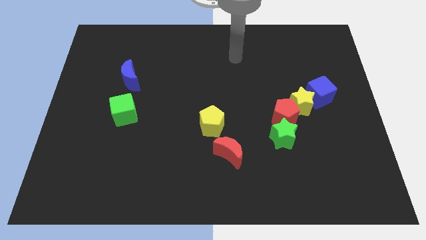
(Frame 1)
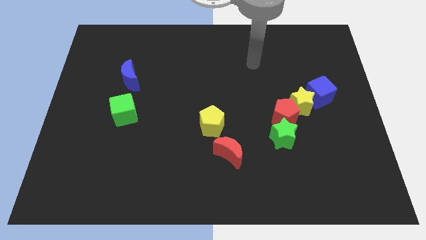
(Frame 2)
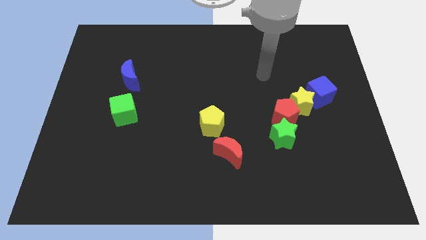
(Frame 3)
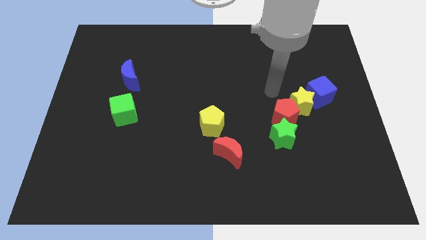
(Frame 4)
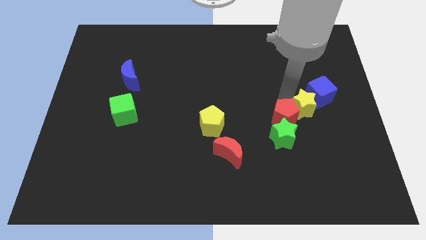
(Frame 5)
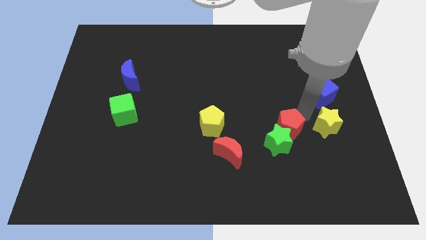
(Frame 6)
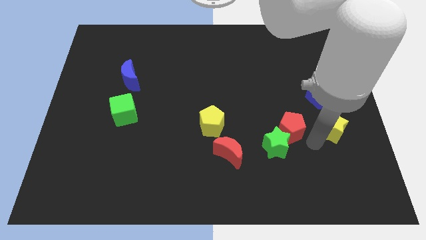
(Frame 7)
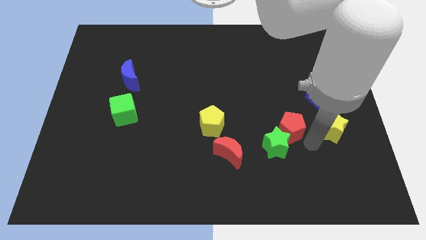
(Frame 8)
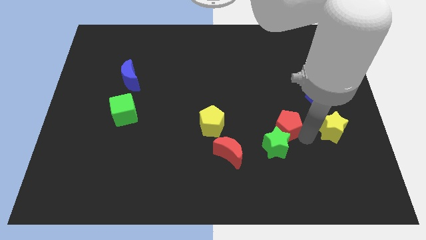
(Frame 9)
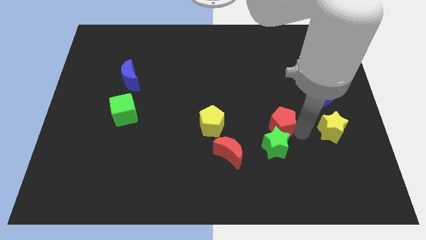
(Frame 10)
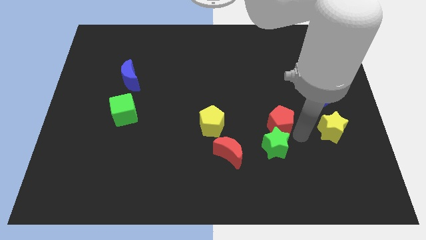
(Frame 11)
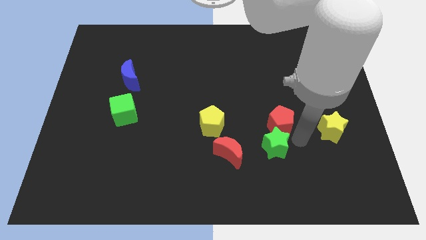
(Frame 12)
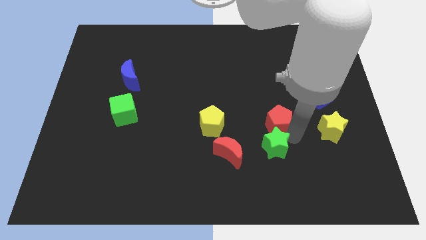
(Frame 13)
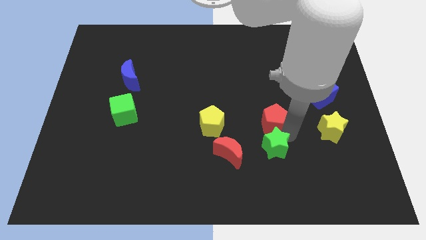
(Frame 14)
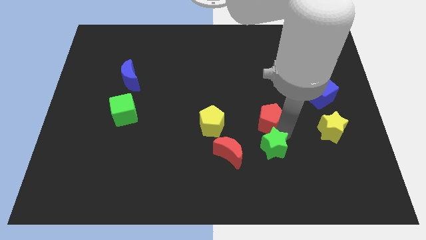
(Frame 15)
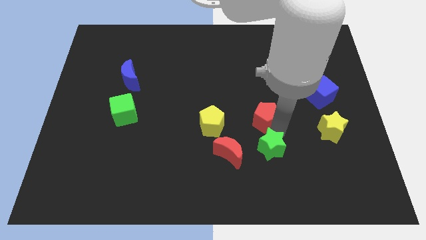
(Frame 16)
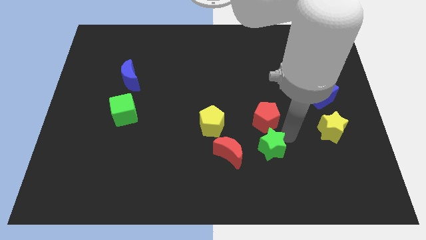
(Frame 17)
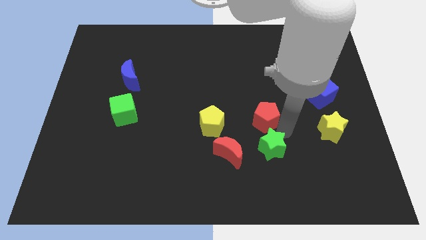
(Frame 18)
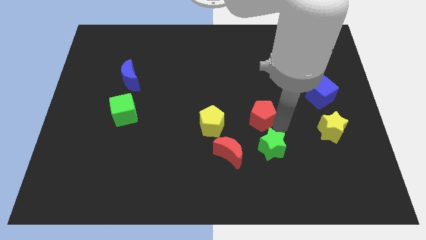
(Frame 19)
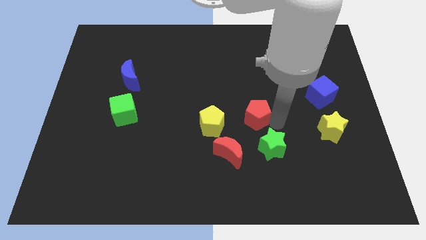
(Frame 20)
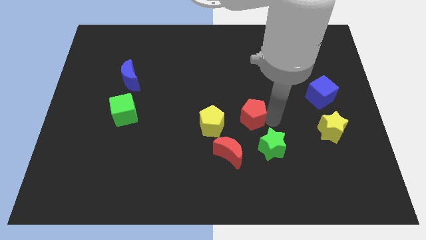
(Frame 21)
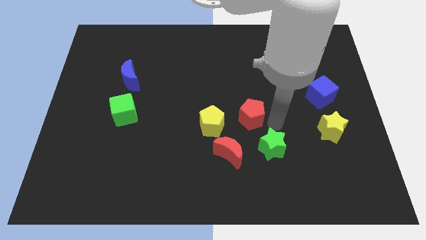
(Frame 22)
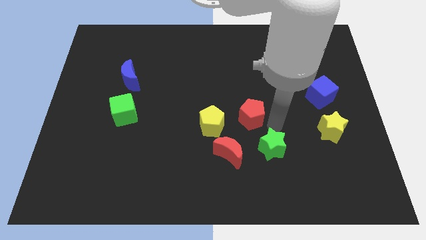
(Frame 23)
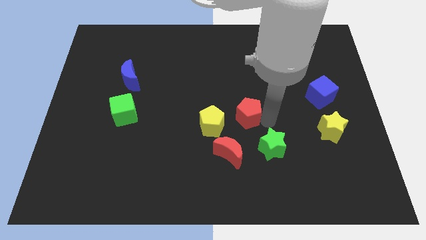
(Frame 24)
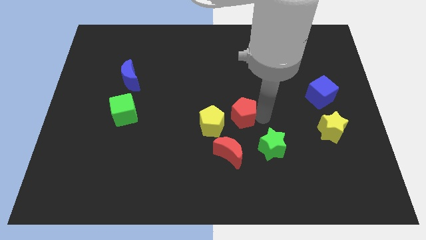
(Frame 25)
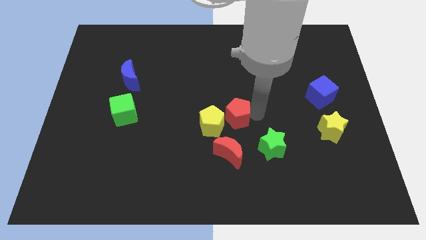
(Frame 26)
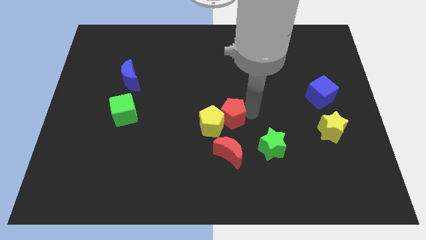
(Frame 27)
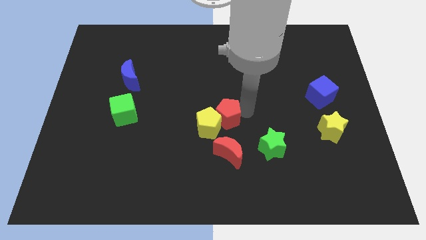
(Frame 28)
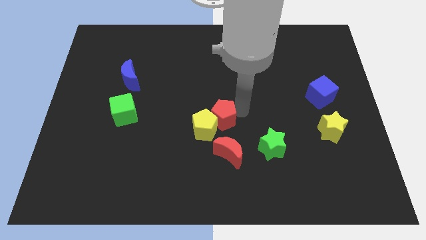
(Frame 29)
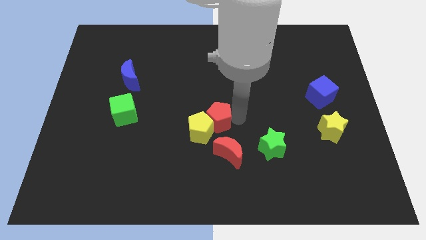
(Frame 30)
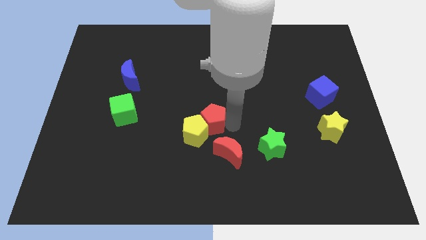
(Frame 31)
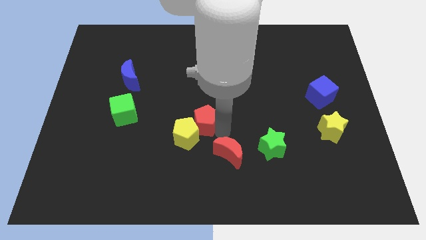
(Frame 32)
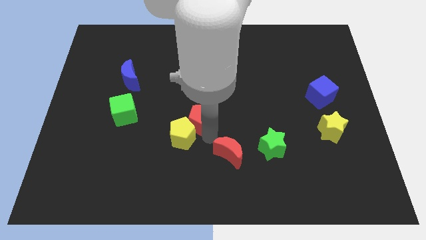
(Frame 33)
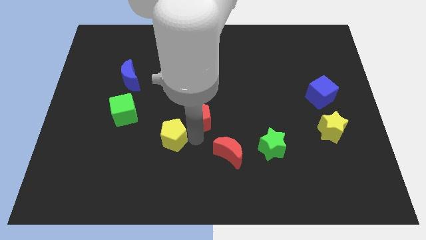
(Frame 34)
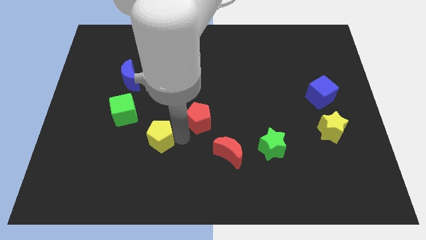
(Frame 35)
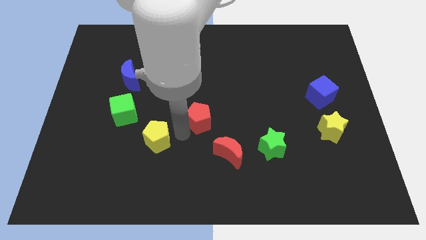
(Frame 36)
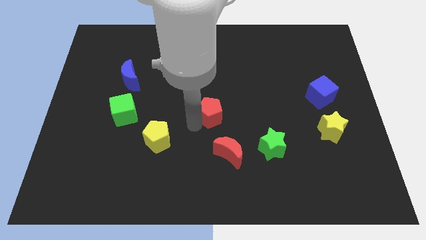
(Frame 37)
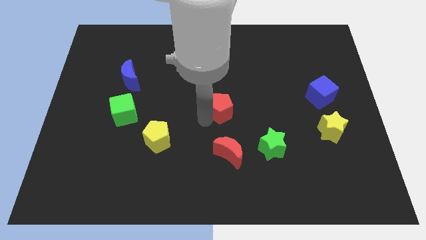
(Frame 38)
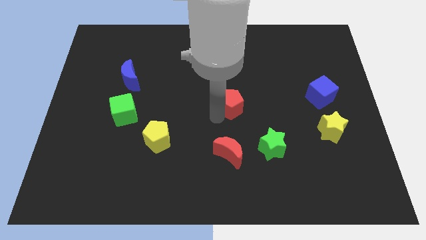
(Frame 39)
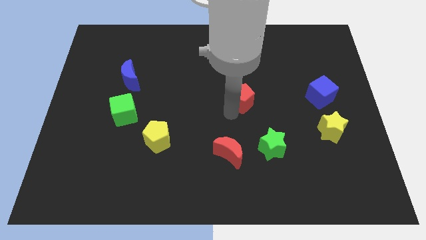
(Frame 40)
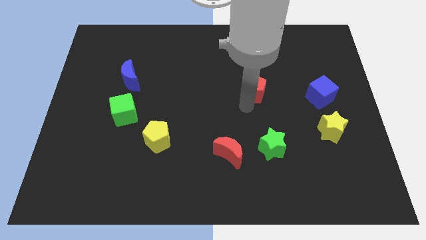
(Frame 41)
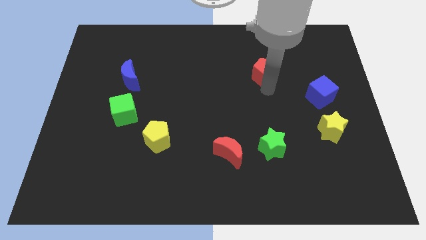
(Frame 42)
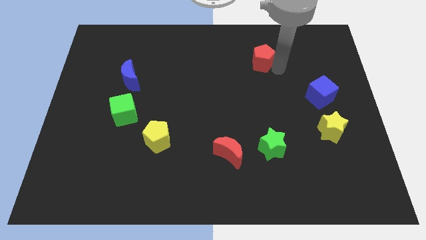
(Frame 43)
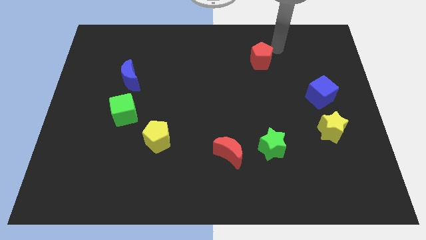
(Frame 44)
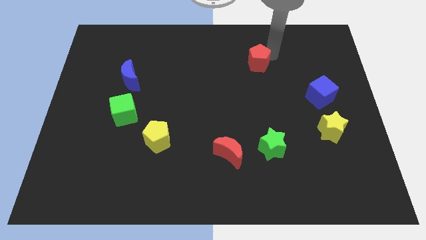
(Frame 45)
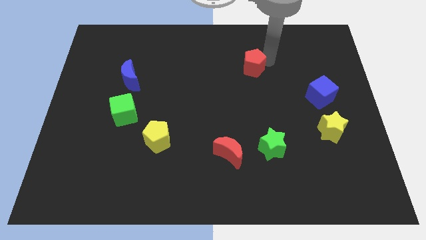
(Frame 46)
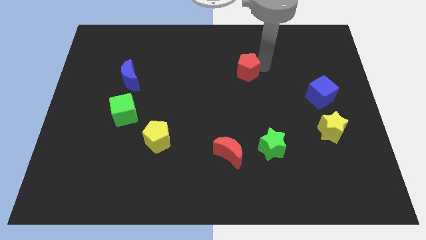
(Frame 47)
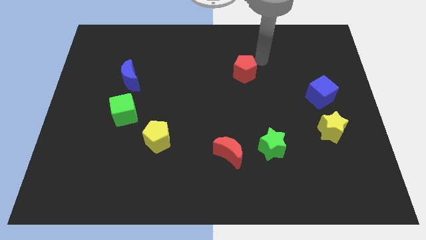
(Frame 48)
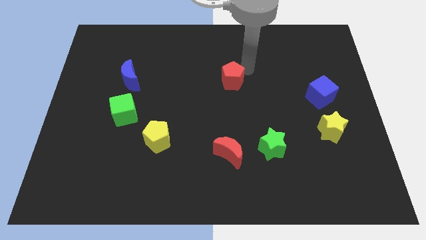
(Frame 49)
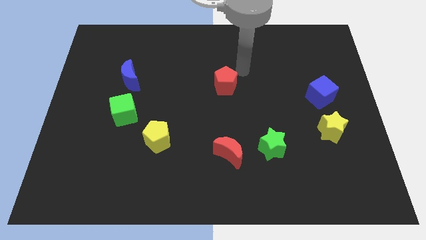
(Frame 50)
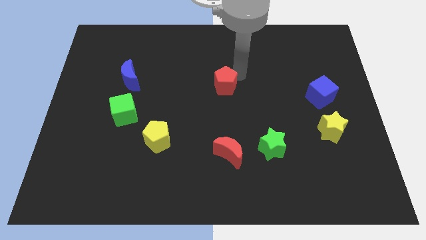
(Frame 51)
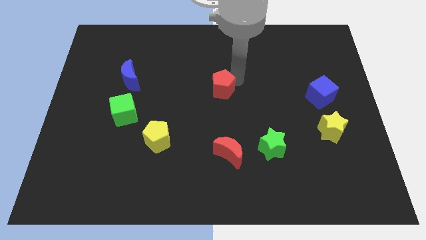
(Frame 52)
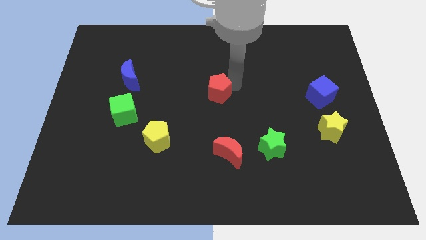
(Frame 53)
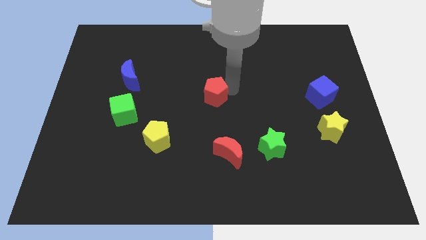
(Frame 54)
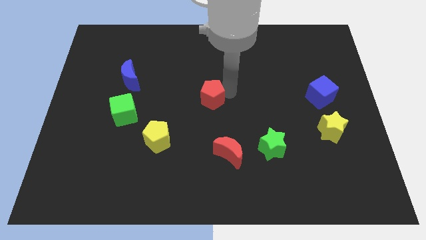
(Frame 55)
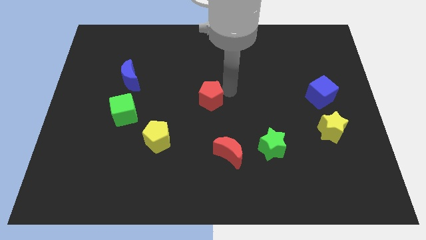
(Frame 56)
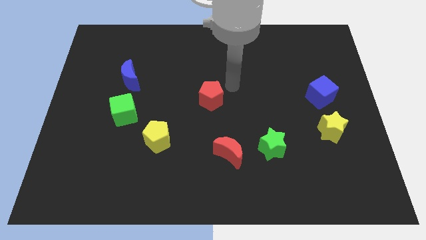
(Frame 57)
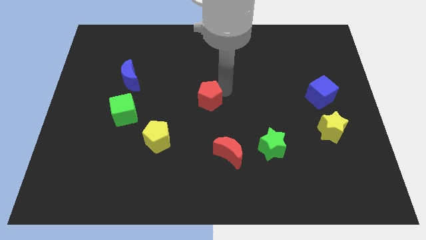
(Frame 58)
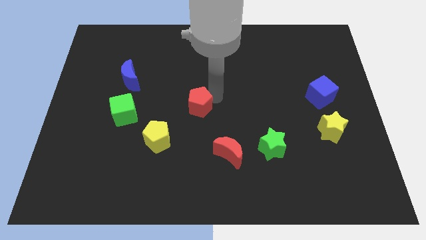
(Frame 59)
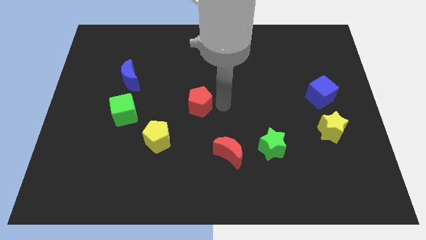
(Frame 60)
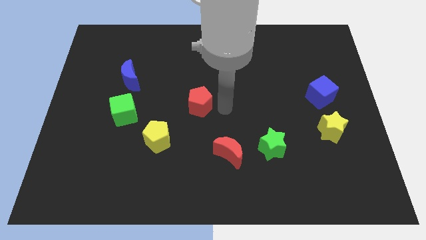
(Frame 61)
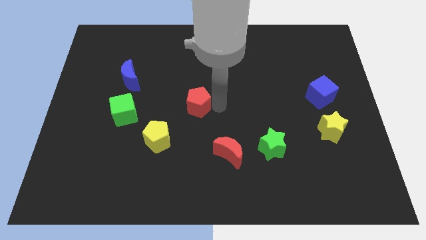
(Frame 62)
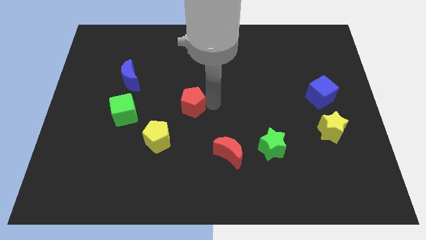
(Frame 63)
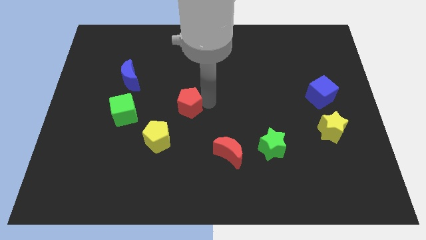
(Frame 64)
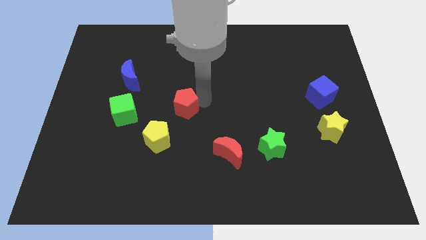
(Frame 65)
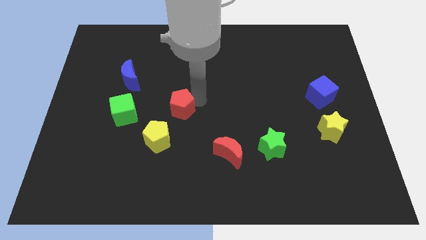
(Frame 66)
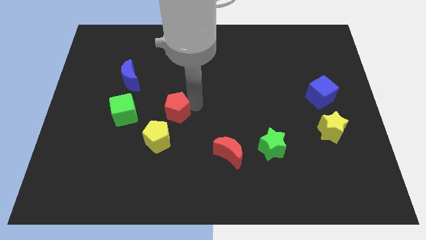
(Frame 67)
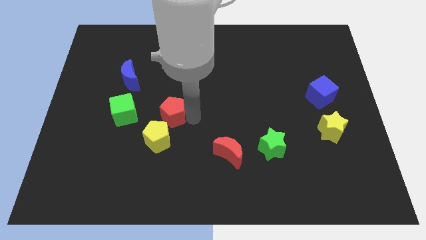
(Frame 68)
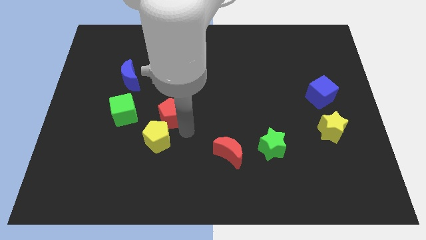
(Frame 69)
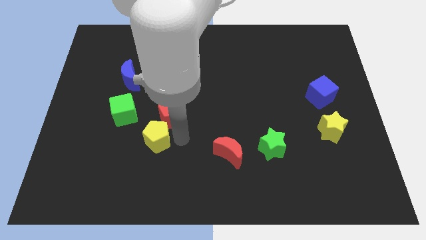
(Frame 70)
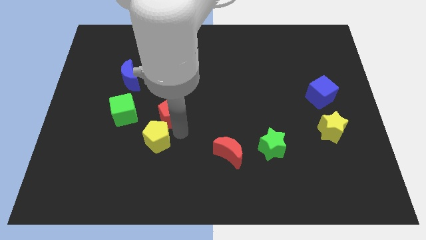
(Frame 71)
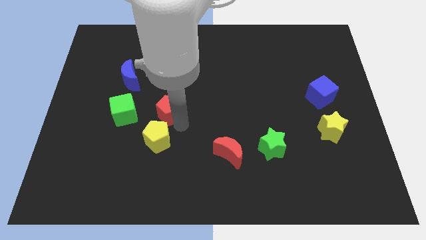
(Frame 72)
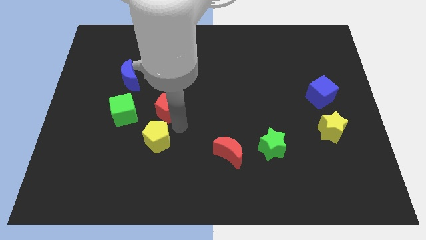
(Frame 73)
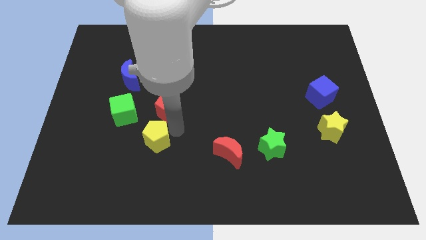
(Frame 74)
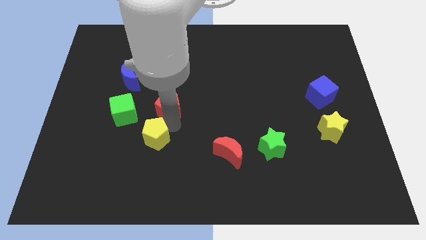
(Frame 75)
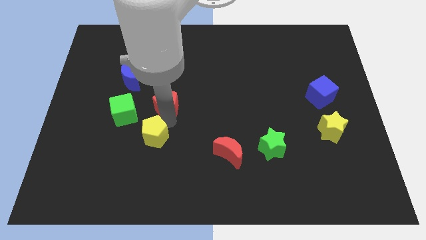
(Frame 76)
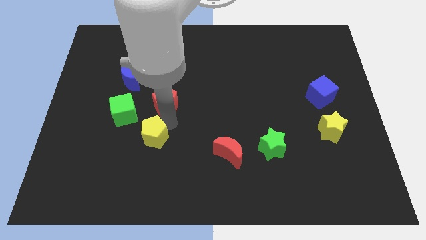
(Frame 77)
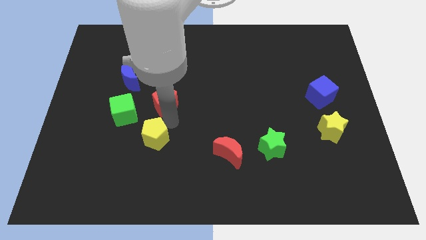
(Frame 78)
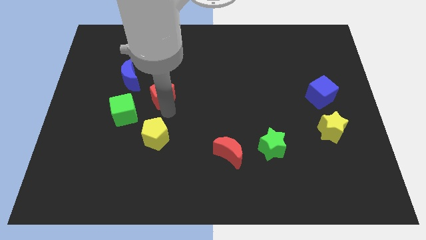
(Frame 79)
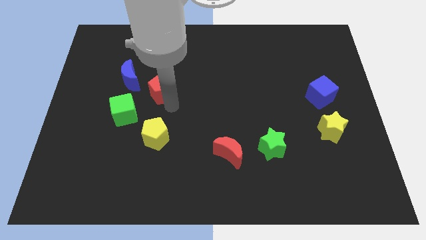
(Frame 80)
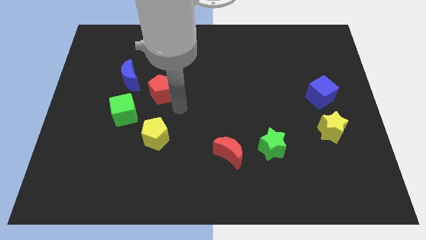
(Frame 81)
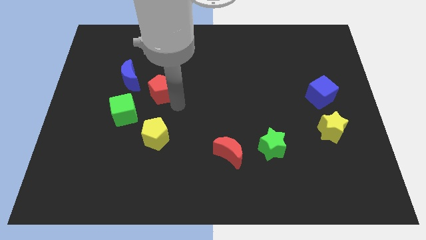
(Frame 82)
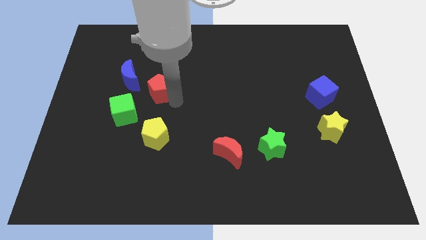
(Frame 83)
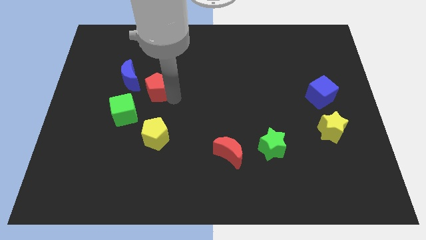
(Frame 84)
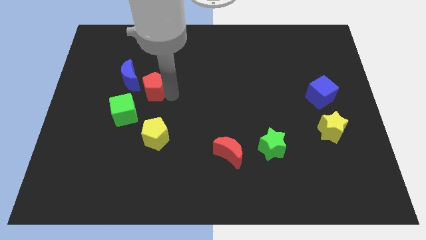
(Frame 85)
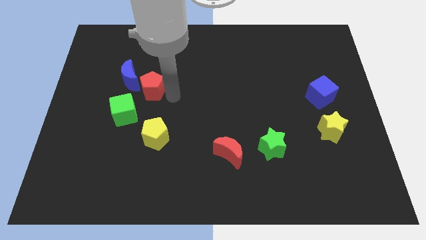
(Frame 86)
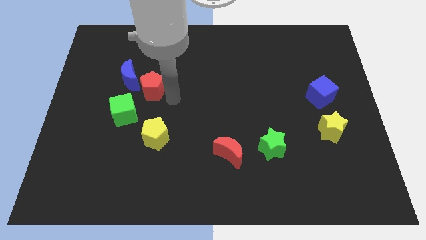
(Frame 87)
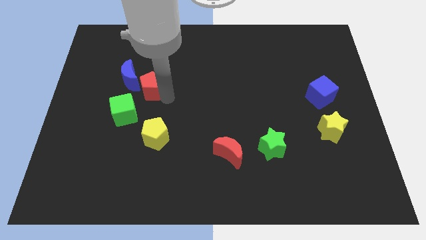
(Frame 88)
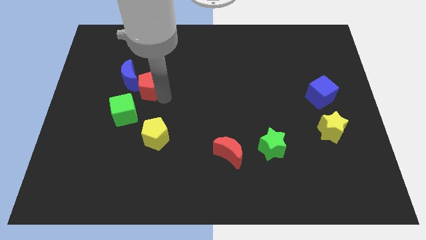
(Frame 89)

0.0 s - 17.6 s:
put the red pentagon next to the blue moon
